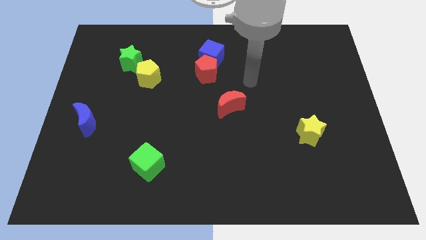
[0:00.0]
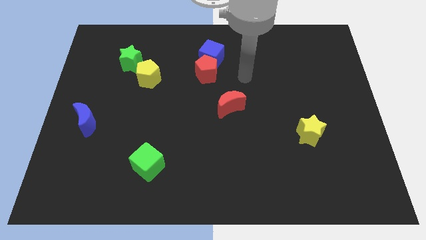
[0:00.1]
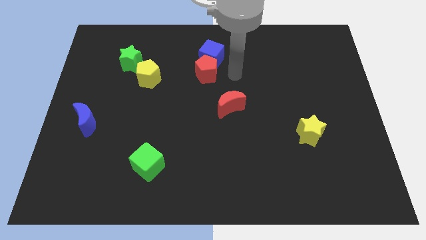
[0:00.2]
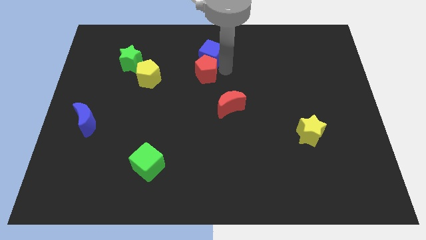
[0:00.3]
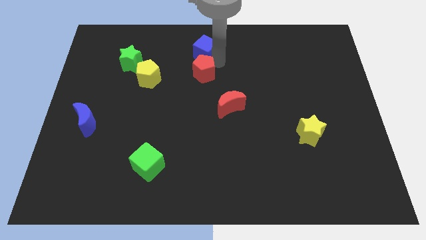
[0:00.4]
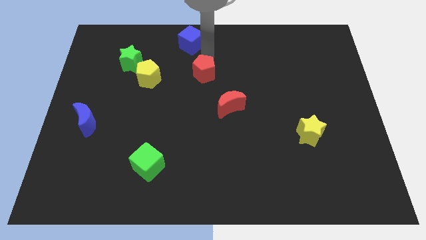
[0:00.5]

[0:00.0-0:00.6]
pull the red pentagon apart from the blue cube

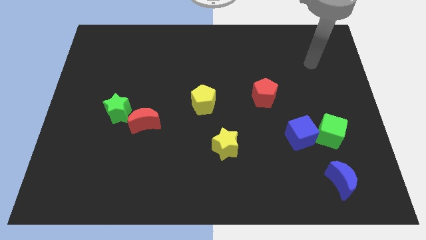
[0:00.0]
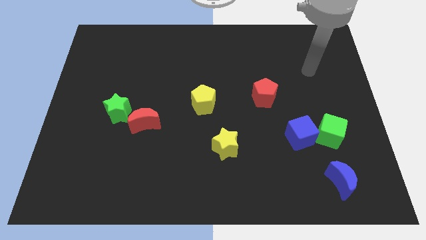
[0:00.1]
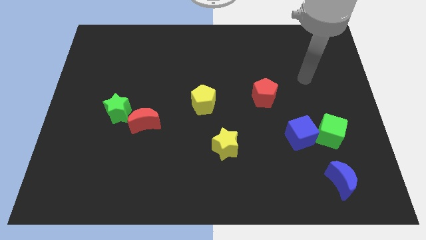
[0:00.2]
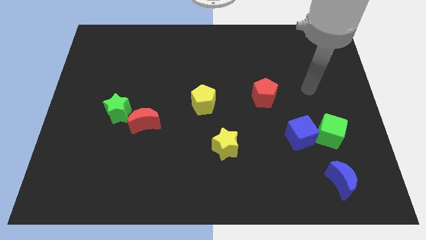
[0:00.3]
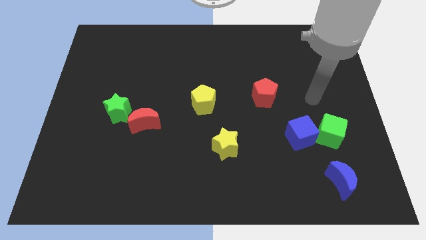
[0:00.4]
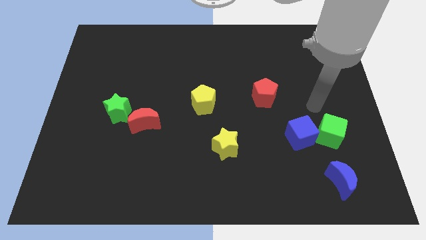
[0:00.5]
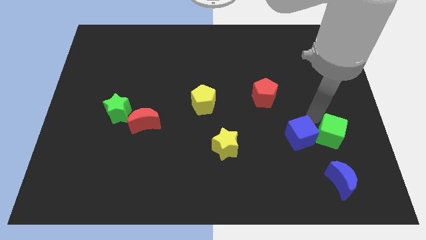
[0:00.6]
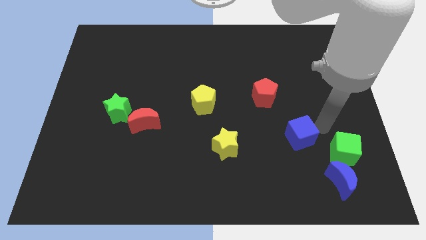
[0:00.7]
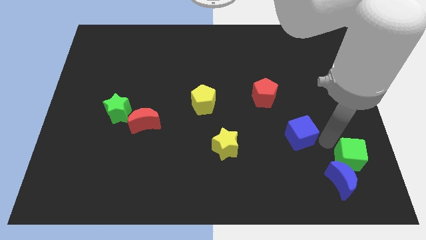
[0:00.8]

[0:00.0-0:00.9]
separate the blue cube from the green cube

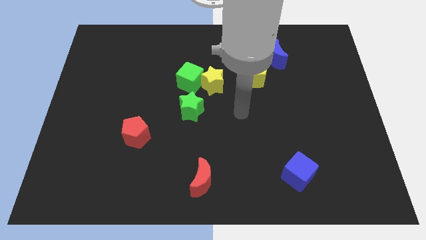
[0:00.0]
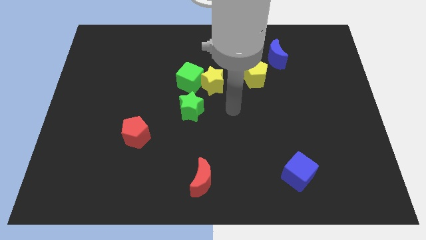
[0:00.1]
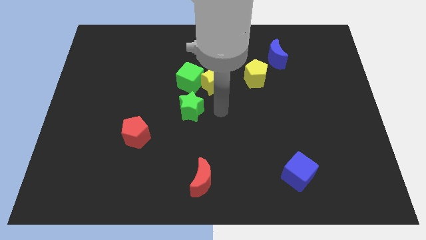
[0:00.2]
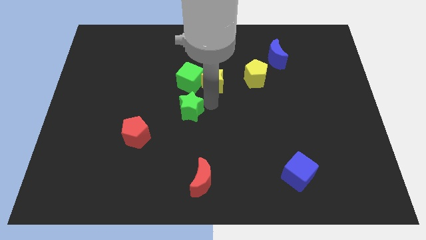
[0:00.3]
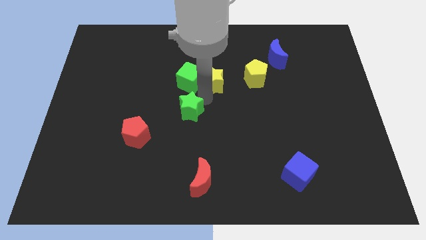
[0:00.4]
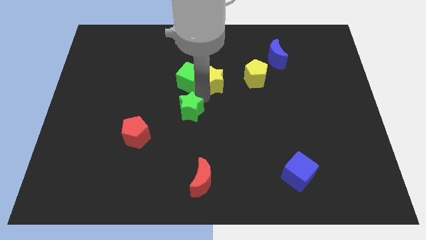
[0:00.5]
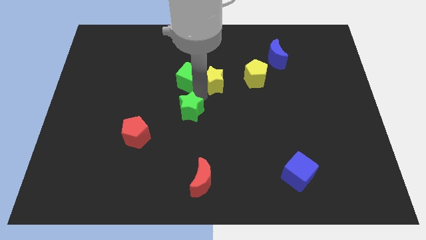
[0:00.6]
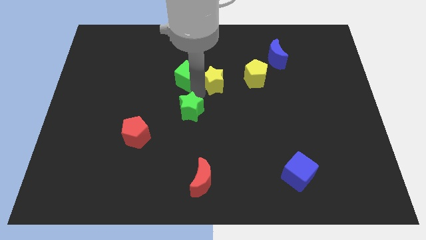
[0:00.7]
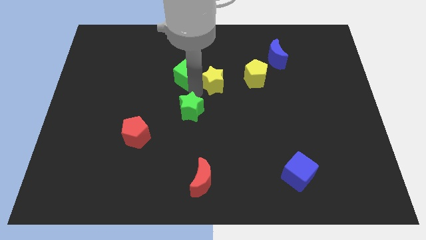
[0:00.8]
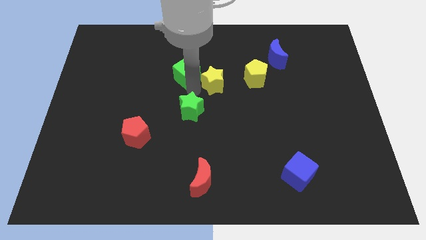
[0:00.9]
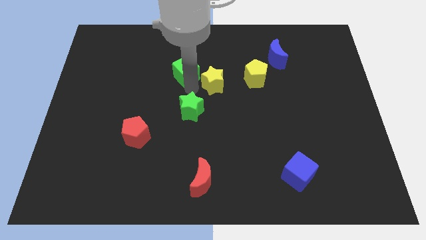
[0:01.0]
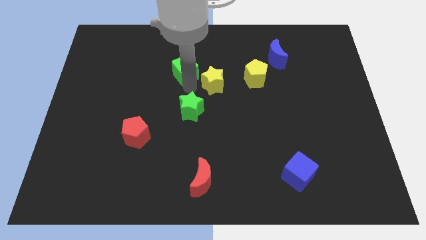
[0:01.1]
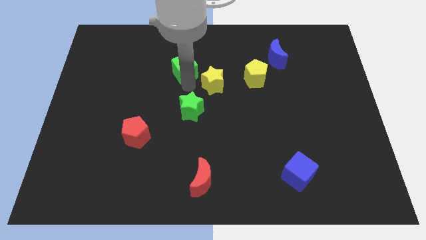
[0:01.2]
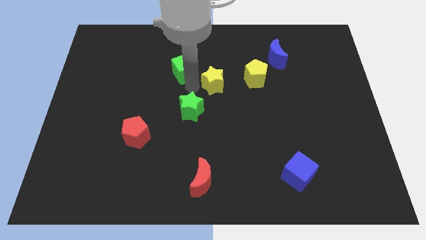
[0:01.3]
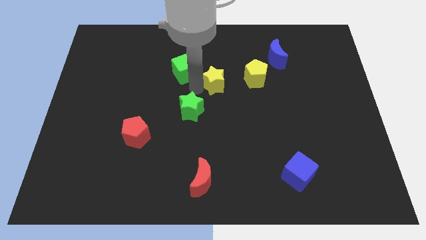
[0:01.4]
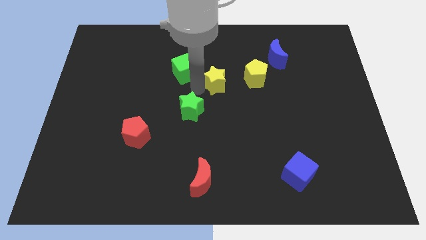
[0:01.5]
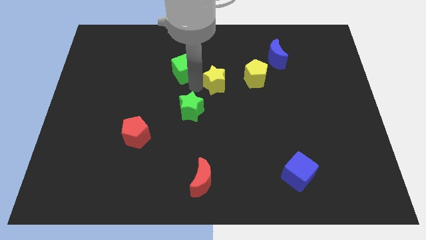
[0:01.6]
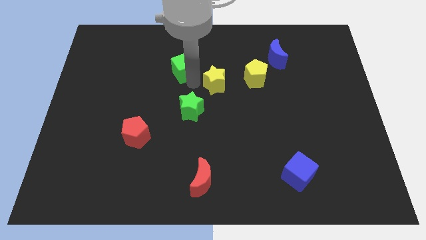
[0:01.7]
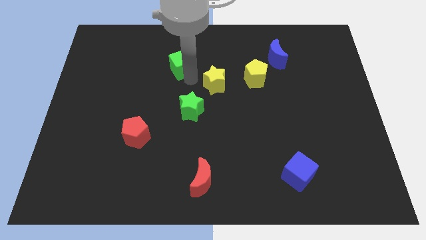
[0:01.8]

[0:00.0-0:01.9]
move the green cube away from the yellow star and green star

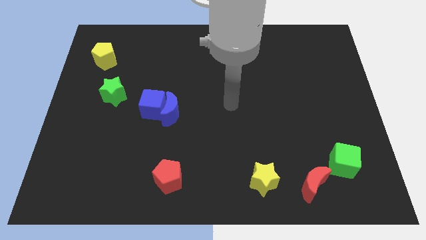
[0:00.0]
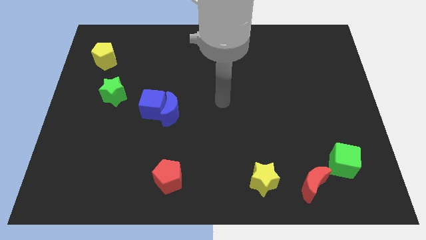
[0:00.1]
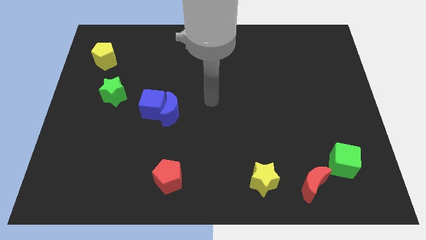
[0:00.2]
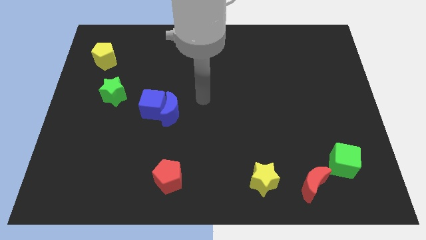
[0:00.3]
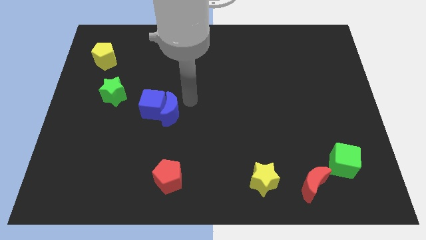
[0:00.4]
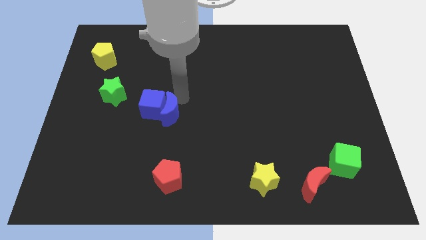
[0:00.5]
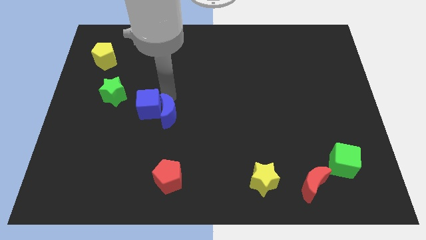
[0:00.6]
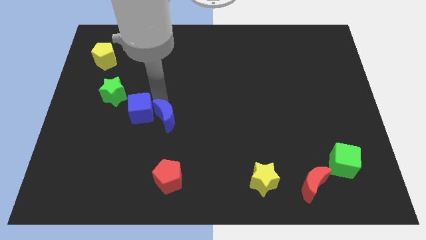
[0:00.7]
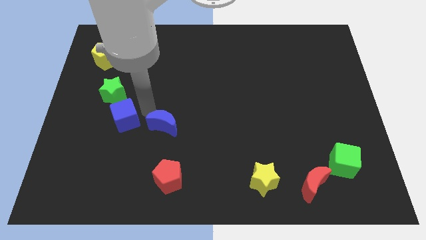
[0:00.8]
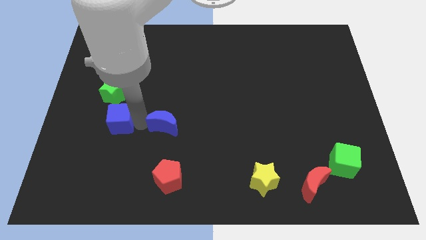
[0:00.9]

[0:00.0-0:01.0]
pull the blue moon apart from the blue cube

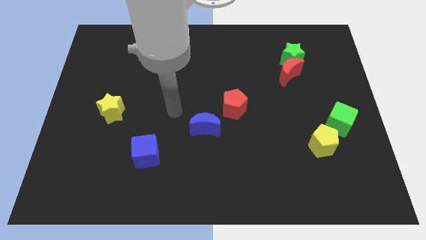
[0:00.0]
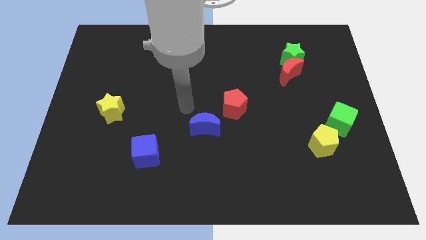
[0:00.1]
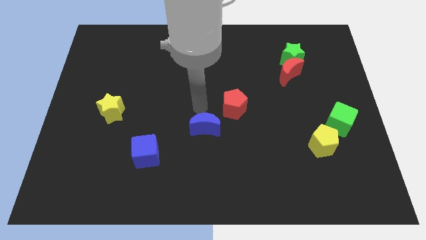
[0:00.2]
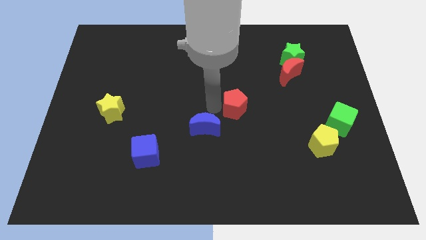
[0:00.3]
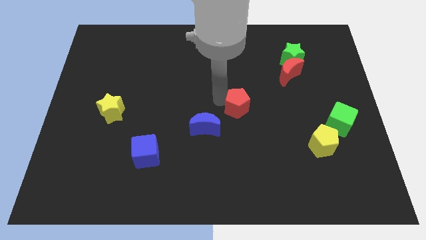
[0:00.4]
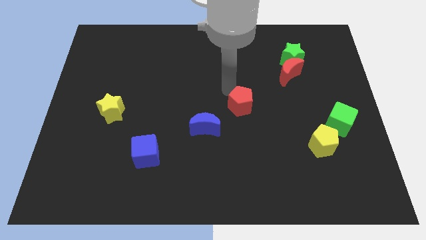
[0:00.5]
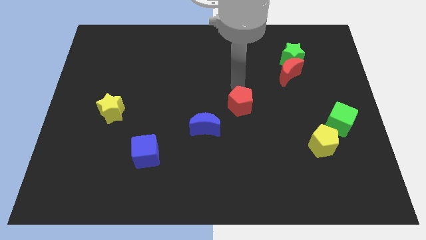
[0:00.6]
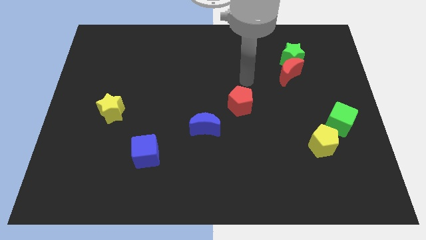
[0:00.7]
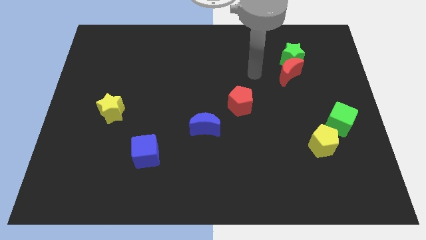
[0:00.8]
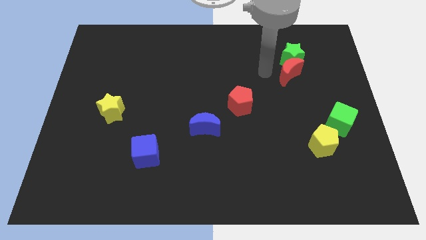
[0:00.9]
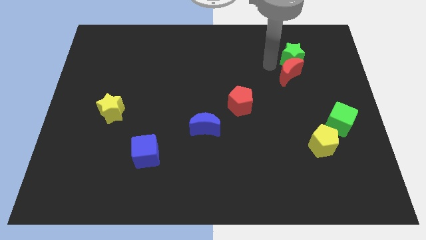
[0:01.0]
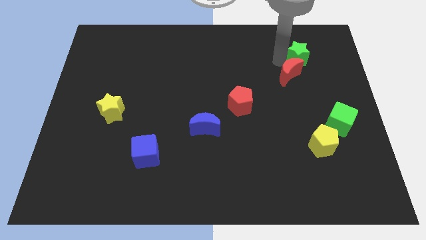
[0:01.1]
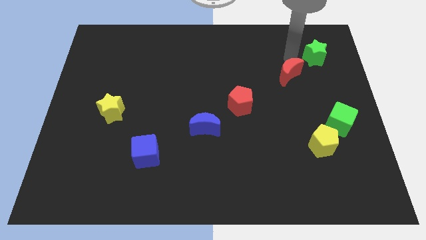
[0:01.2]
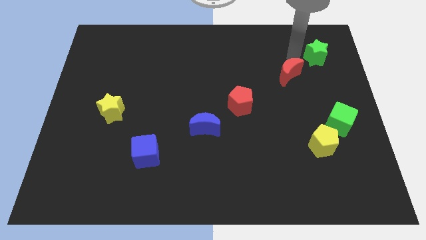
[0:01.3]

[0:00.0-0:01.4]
separate the red moon from the green star

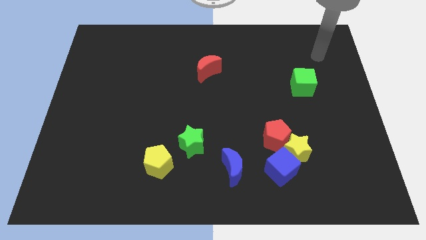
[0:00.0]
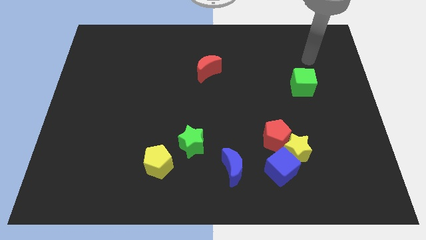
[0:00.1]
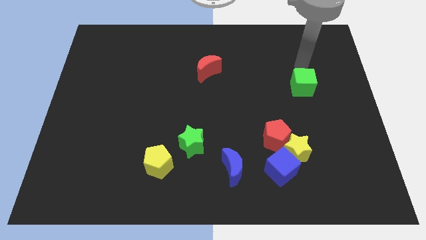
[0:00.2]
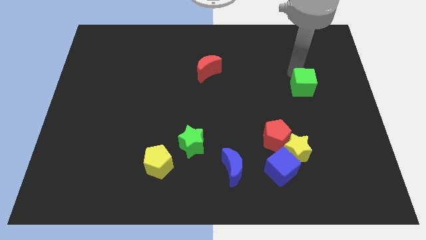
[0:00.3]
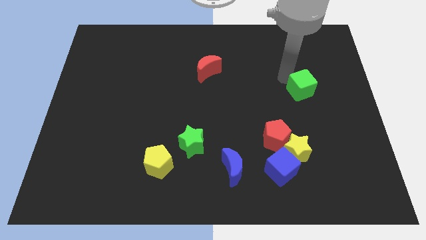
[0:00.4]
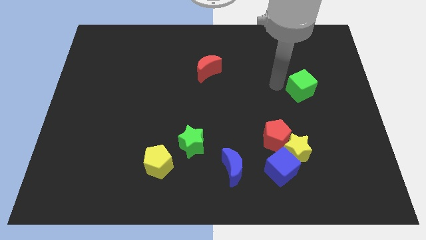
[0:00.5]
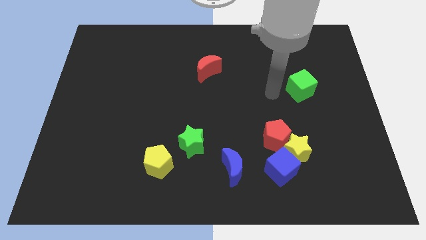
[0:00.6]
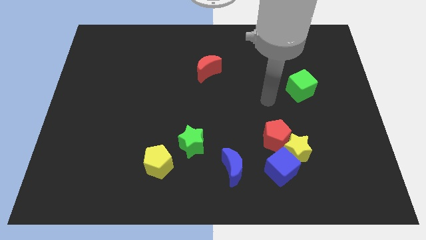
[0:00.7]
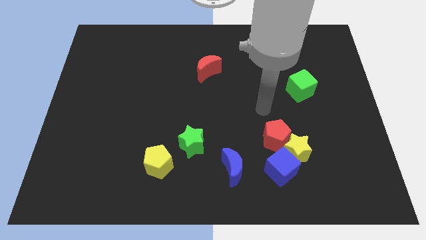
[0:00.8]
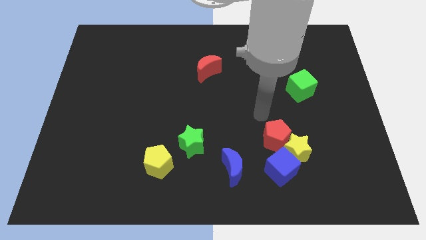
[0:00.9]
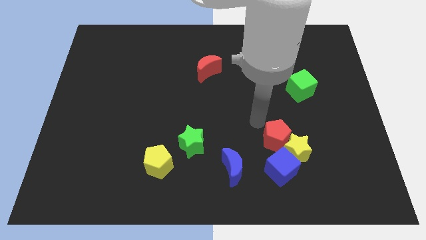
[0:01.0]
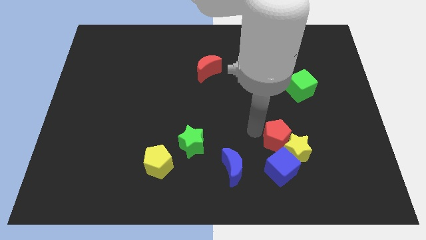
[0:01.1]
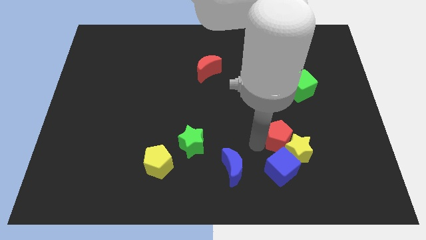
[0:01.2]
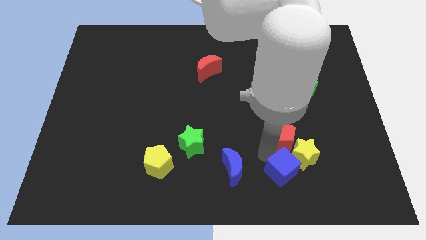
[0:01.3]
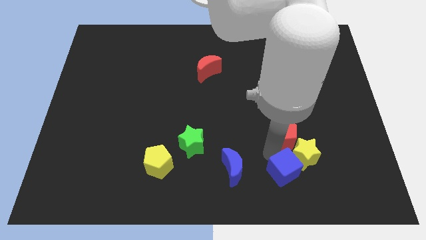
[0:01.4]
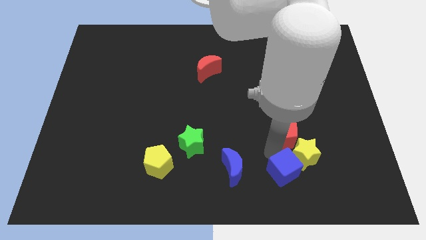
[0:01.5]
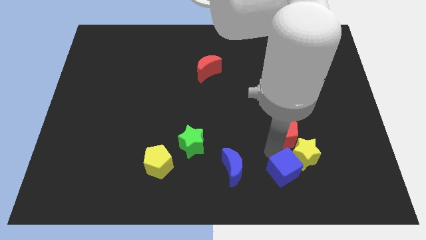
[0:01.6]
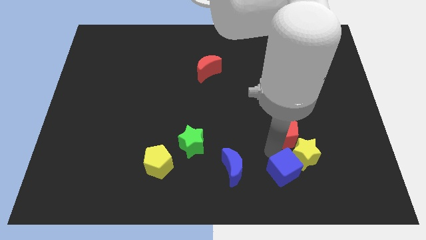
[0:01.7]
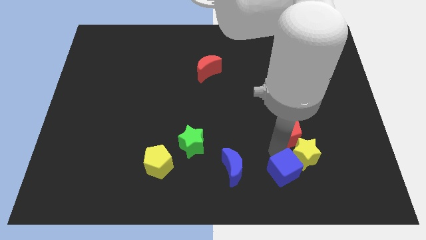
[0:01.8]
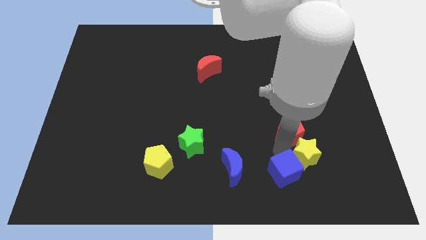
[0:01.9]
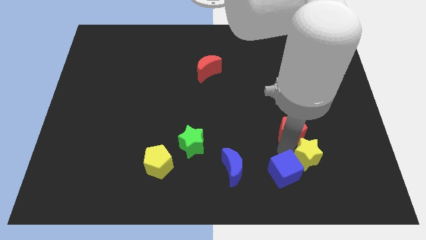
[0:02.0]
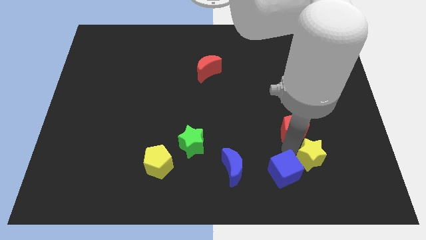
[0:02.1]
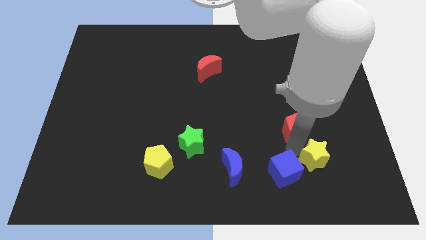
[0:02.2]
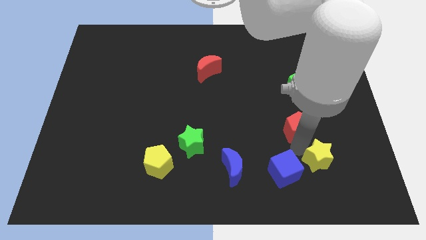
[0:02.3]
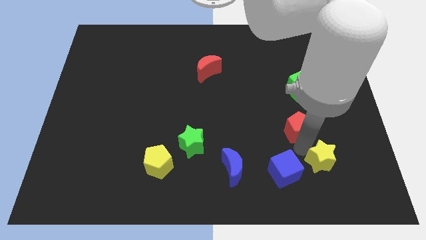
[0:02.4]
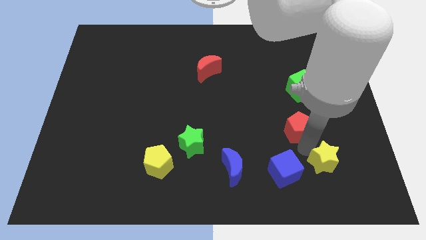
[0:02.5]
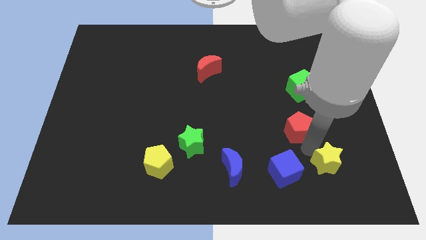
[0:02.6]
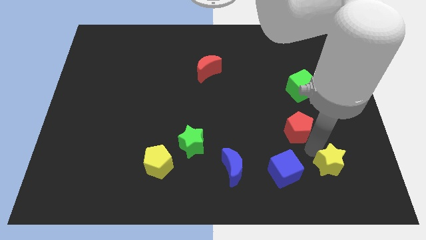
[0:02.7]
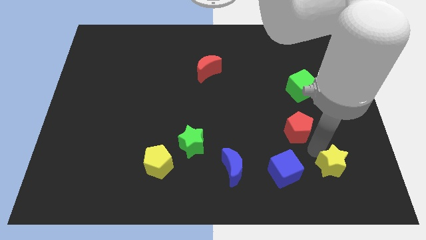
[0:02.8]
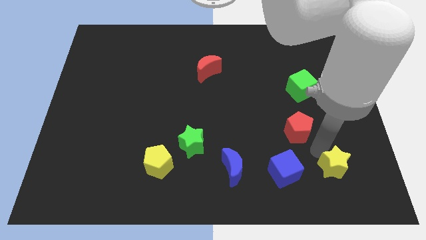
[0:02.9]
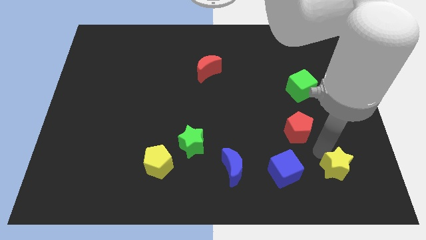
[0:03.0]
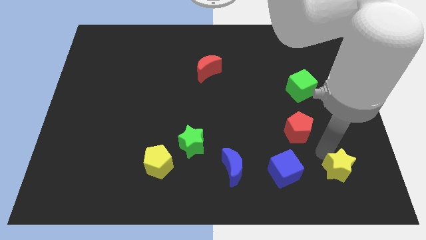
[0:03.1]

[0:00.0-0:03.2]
move the yellow star away from the red pentagon and blue cube

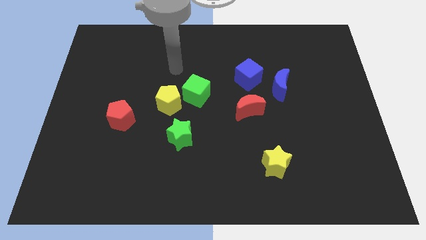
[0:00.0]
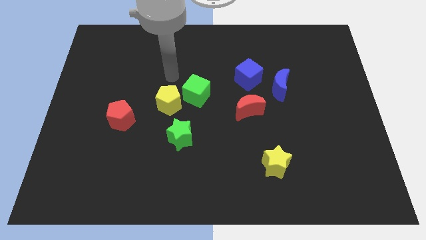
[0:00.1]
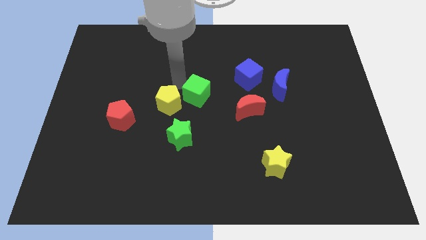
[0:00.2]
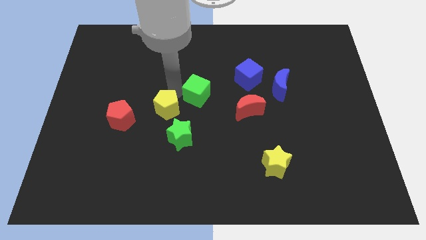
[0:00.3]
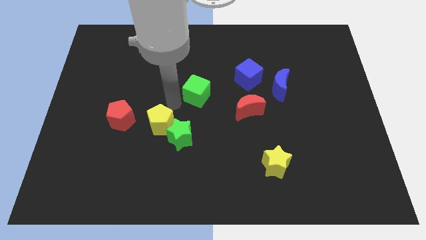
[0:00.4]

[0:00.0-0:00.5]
separate the green cube from the yellow pentagon

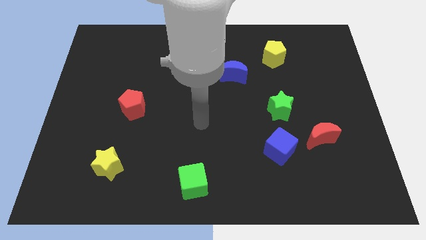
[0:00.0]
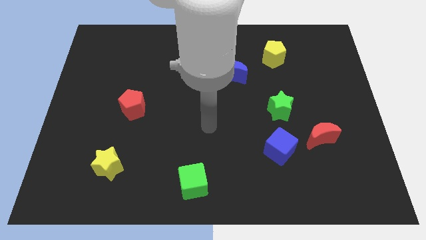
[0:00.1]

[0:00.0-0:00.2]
separate the red moon from the blue cube
